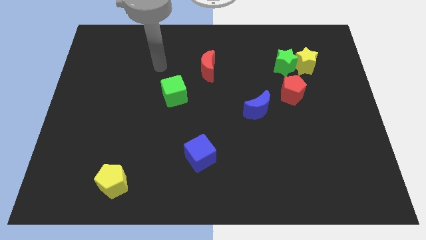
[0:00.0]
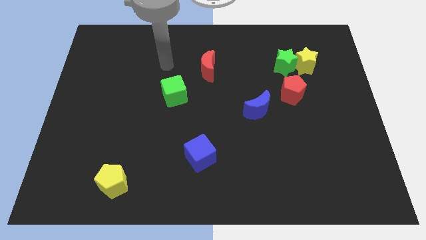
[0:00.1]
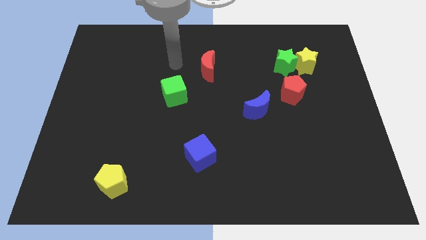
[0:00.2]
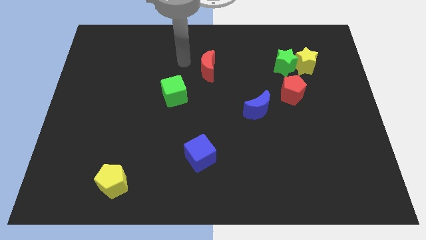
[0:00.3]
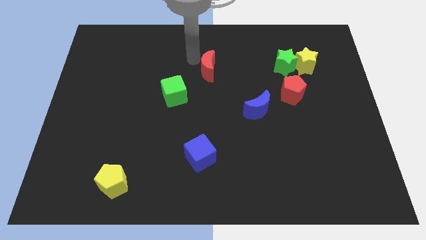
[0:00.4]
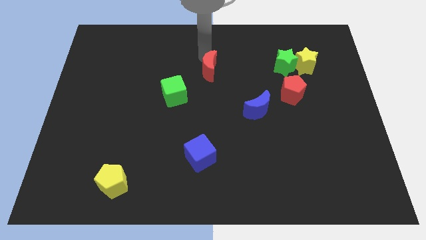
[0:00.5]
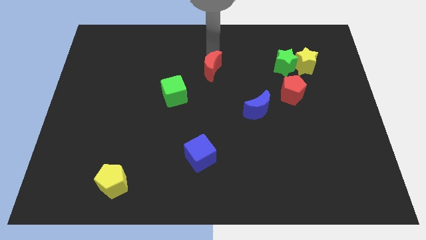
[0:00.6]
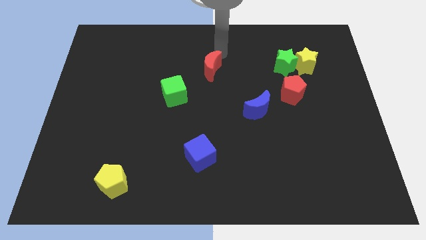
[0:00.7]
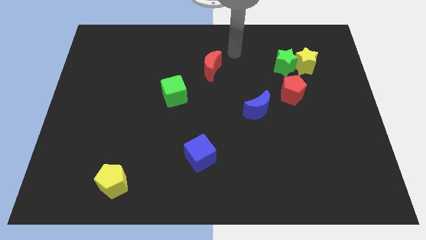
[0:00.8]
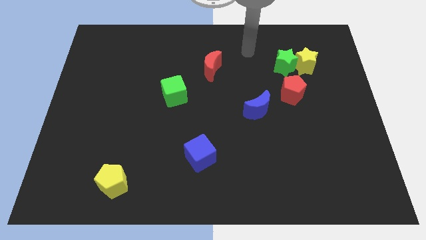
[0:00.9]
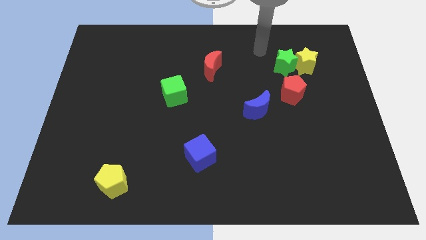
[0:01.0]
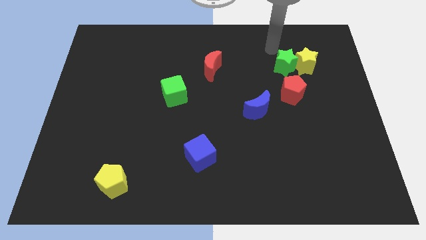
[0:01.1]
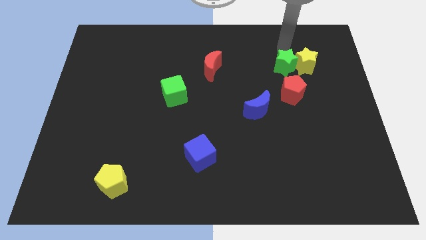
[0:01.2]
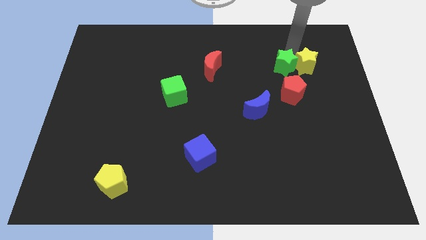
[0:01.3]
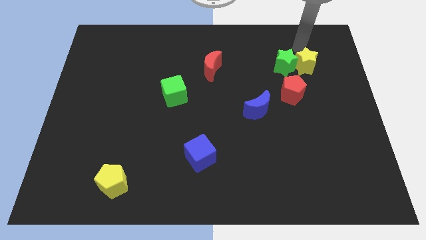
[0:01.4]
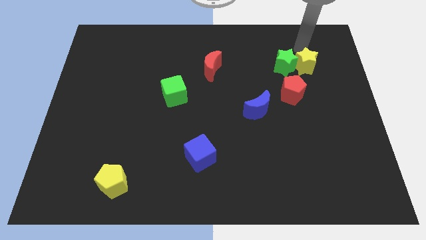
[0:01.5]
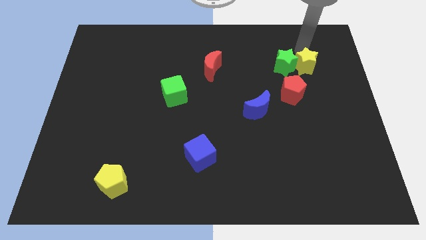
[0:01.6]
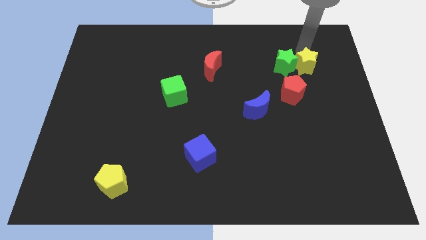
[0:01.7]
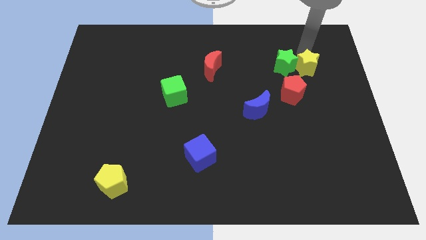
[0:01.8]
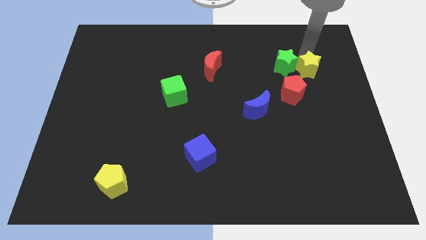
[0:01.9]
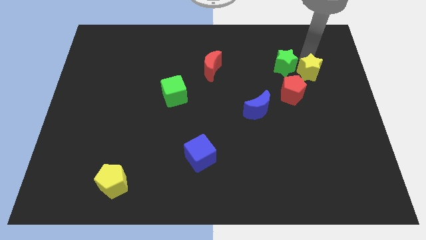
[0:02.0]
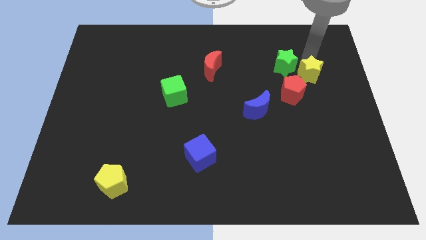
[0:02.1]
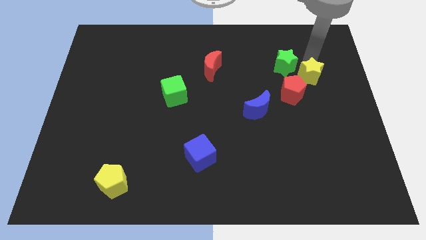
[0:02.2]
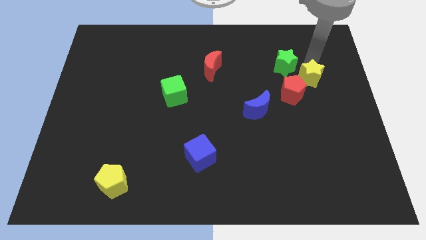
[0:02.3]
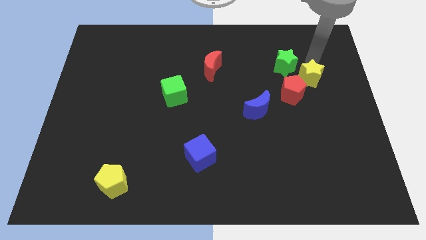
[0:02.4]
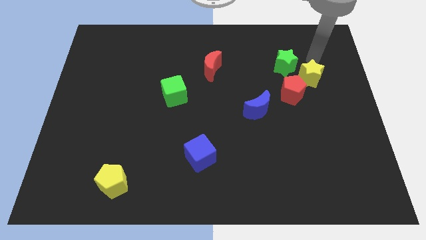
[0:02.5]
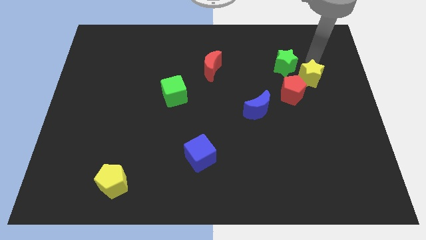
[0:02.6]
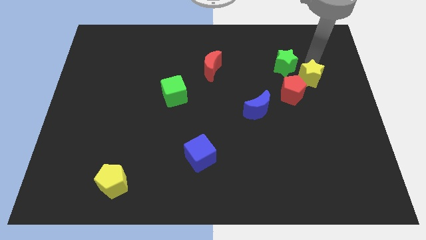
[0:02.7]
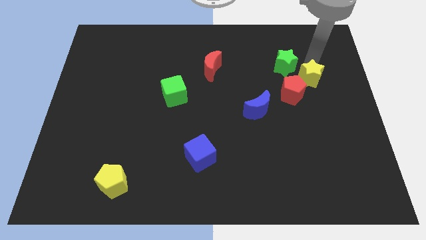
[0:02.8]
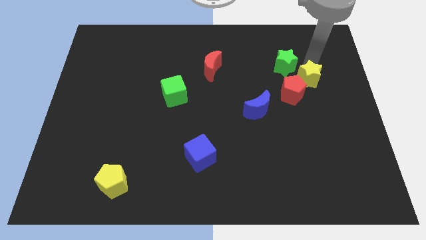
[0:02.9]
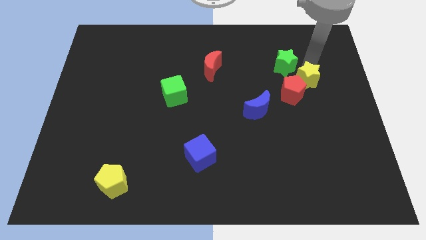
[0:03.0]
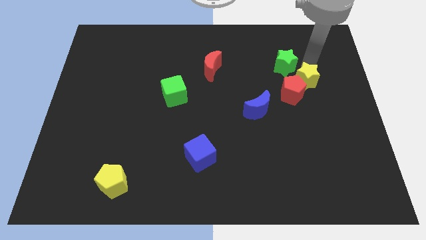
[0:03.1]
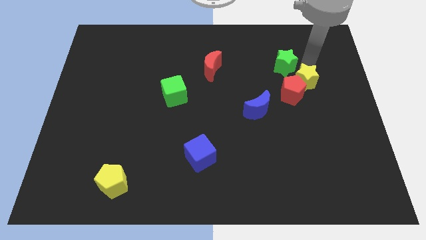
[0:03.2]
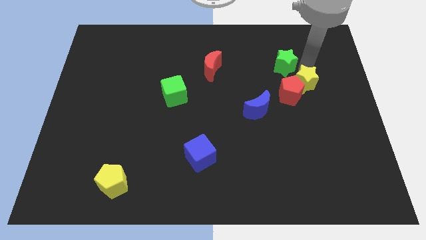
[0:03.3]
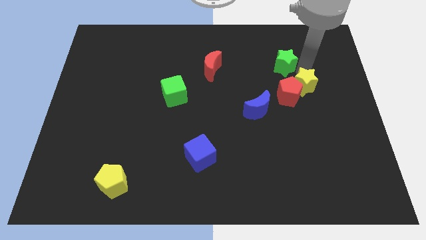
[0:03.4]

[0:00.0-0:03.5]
slightly move the yellow star down

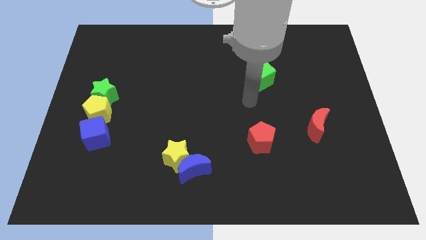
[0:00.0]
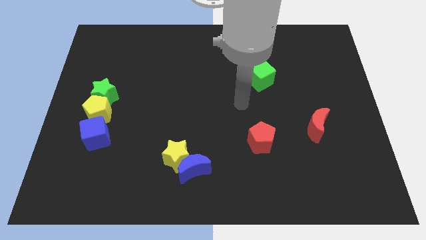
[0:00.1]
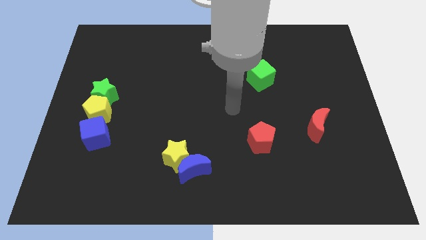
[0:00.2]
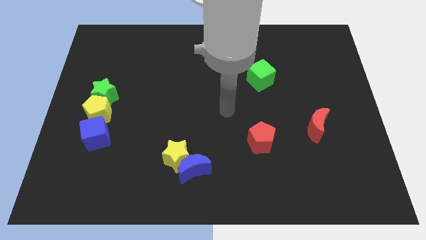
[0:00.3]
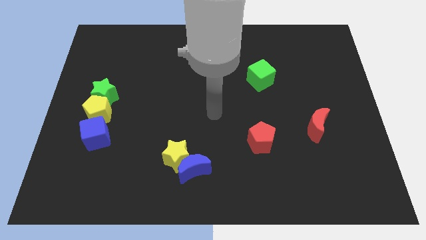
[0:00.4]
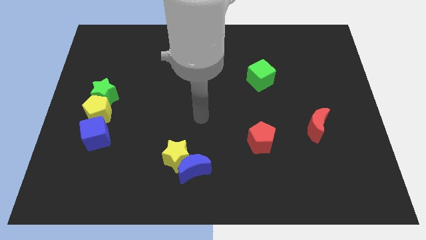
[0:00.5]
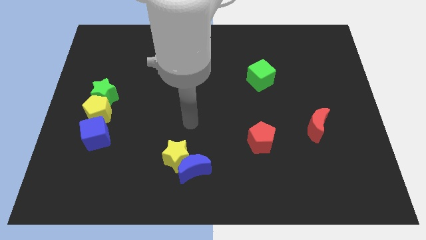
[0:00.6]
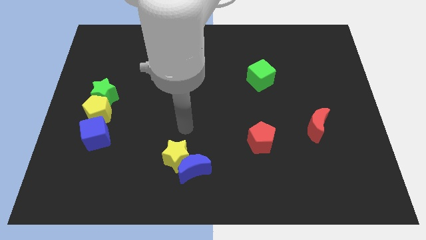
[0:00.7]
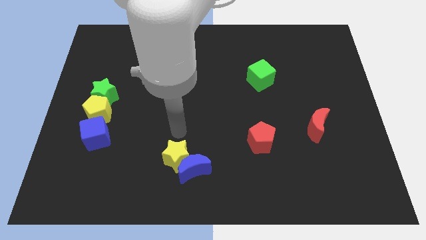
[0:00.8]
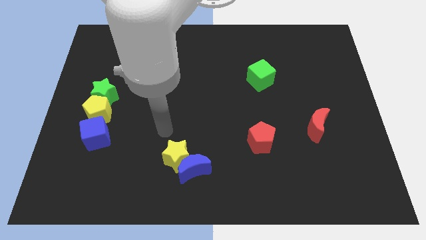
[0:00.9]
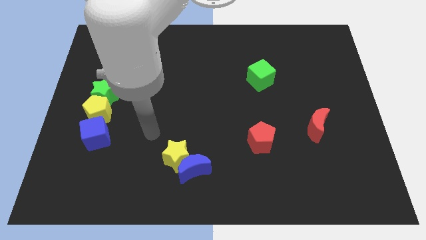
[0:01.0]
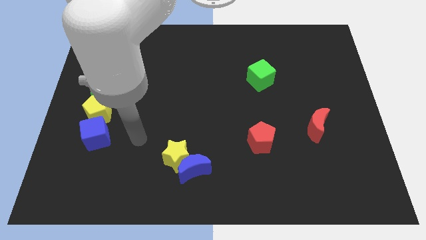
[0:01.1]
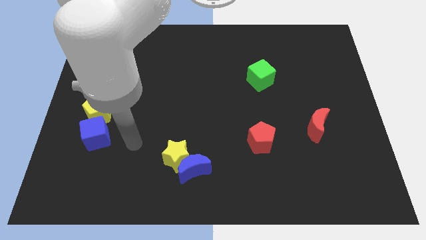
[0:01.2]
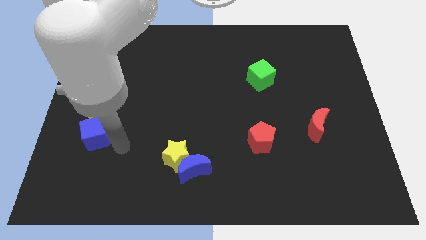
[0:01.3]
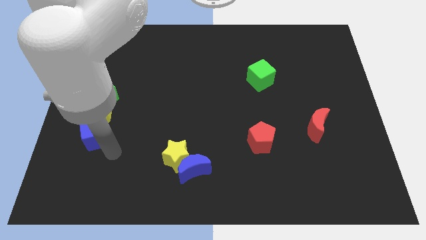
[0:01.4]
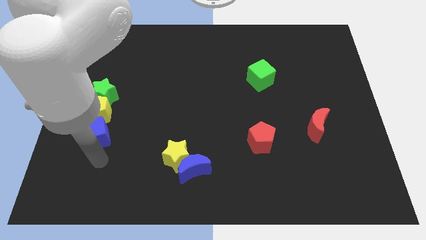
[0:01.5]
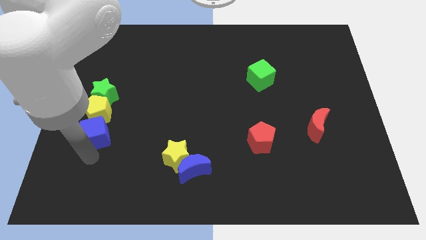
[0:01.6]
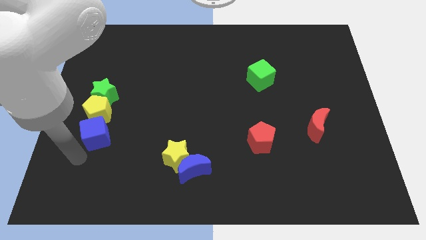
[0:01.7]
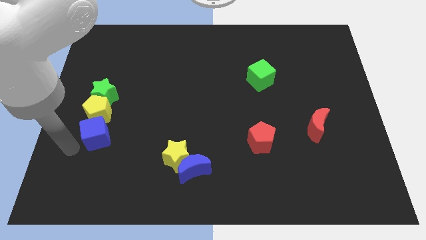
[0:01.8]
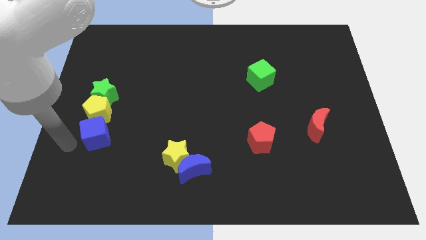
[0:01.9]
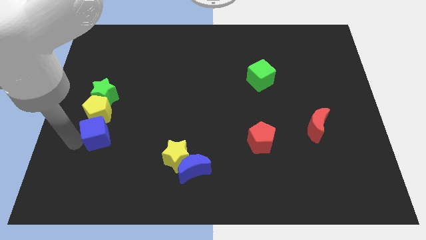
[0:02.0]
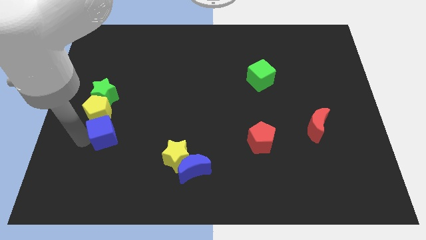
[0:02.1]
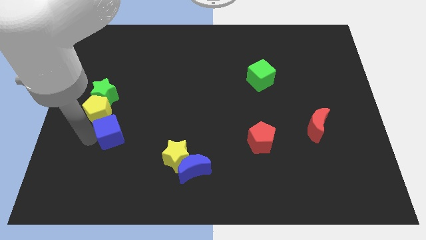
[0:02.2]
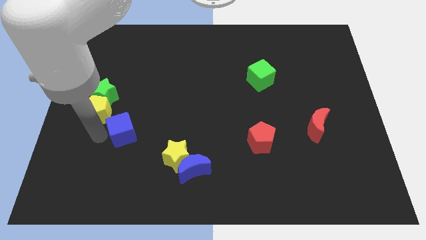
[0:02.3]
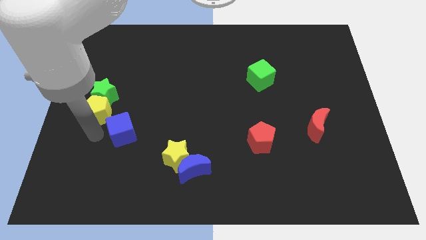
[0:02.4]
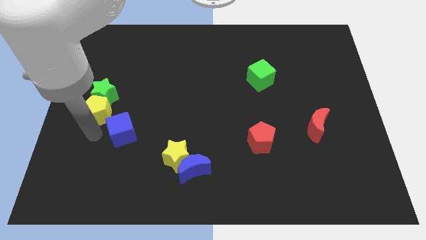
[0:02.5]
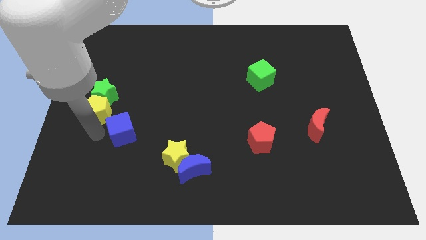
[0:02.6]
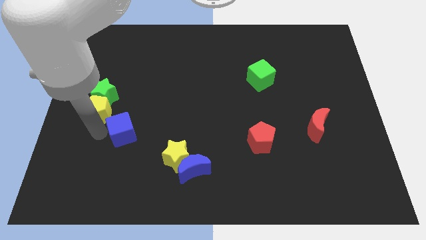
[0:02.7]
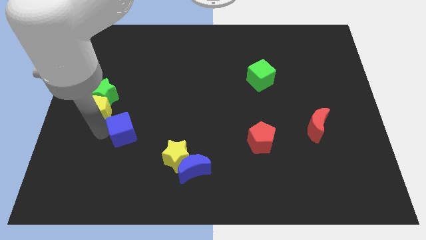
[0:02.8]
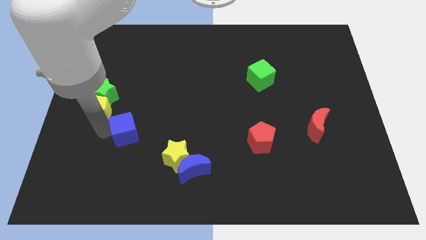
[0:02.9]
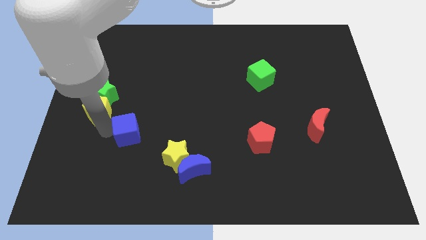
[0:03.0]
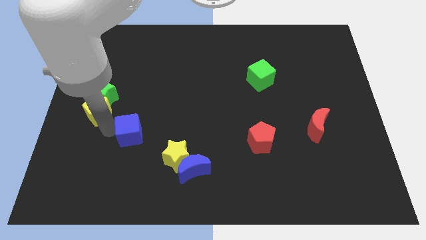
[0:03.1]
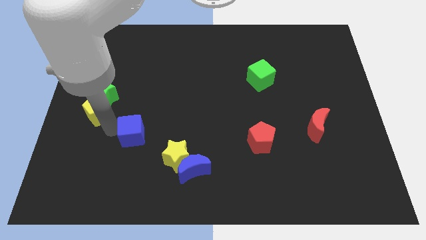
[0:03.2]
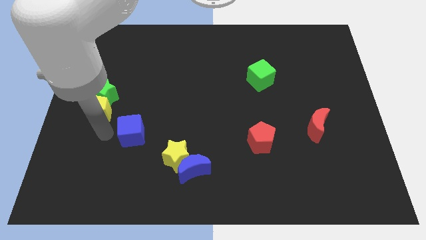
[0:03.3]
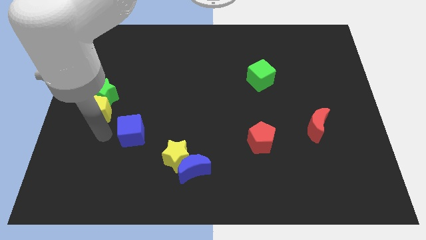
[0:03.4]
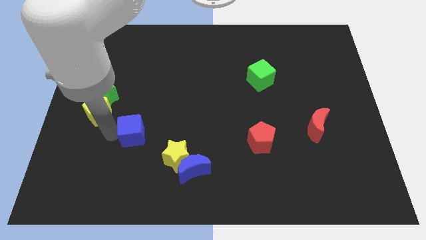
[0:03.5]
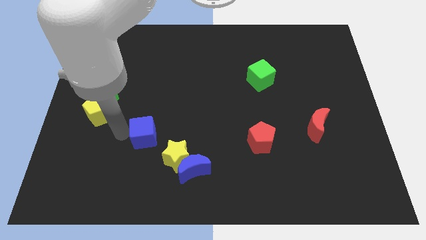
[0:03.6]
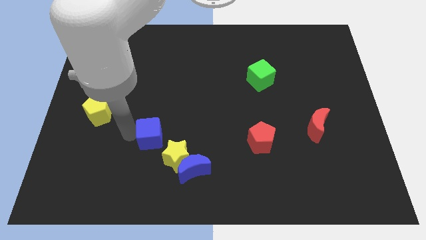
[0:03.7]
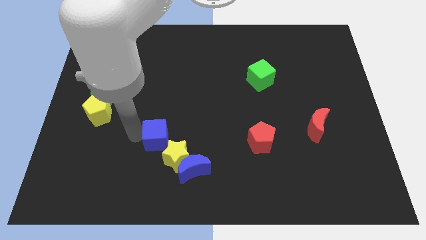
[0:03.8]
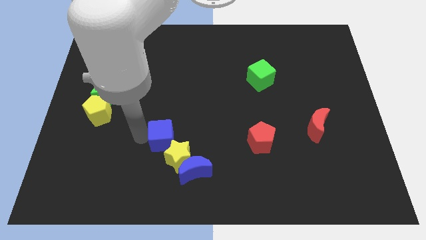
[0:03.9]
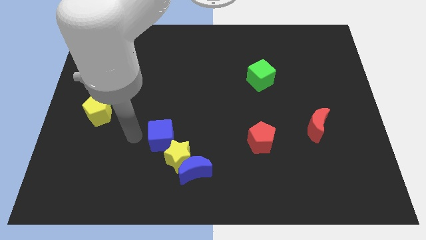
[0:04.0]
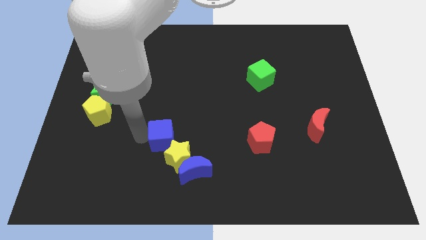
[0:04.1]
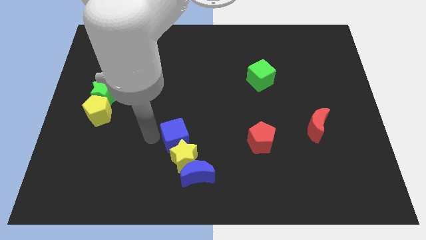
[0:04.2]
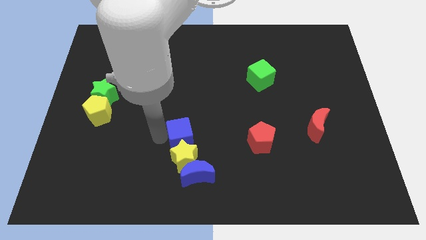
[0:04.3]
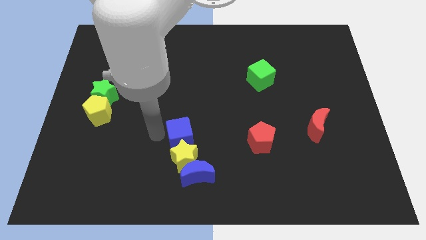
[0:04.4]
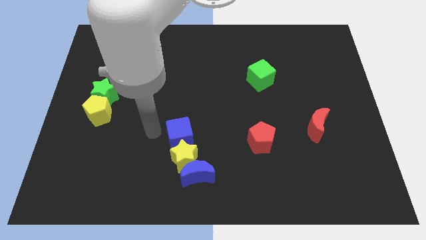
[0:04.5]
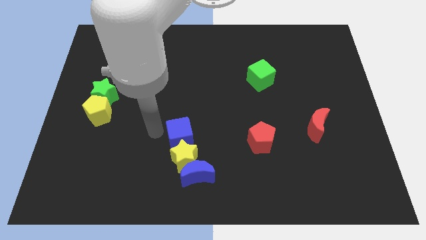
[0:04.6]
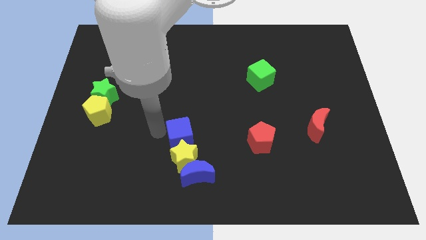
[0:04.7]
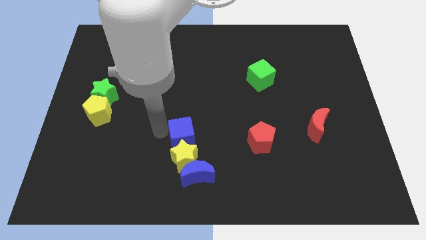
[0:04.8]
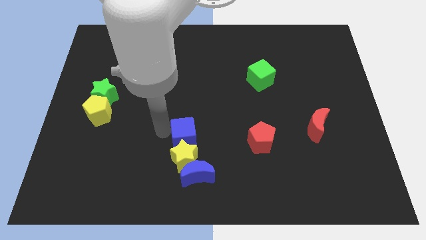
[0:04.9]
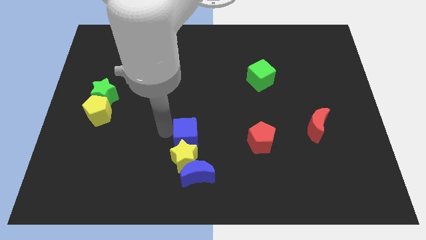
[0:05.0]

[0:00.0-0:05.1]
push the blue cube to the right
